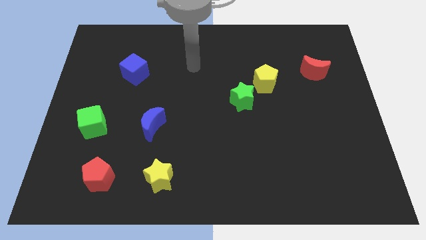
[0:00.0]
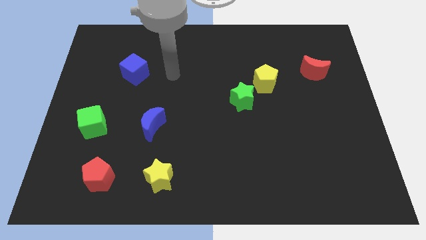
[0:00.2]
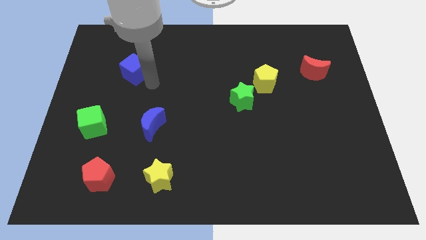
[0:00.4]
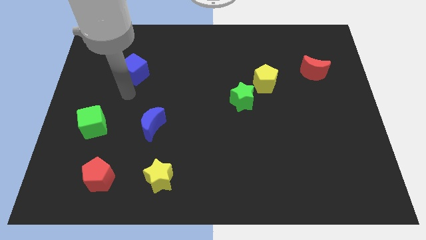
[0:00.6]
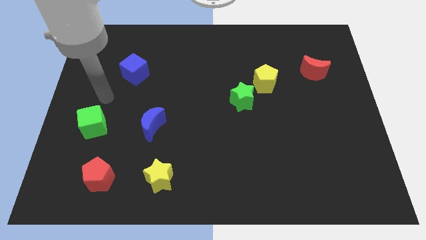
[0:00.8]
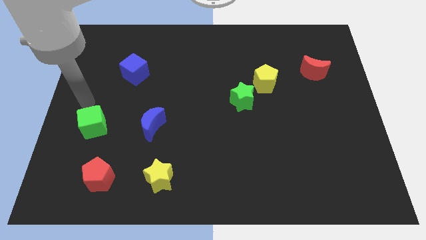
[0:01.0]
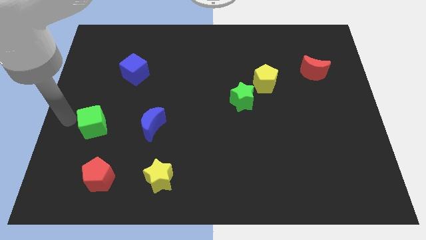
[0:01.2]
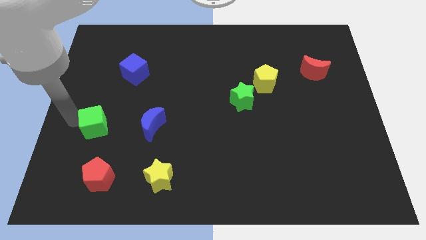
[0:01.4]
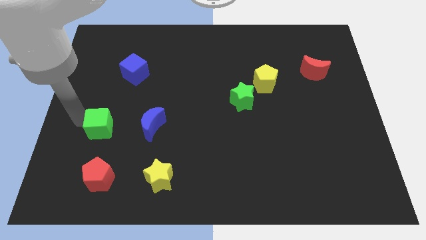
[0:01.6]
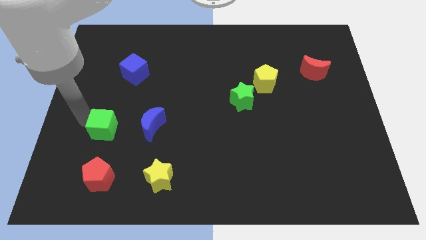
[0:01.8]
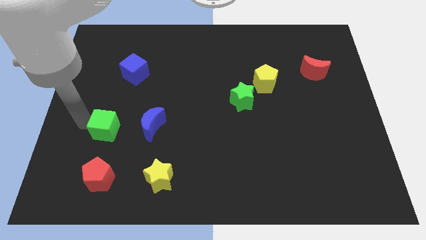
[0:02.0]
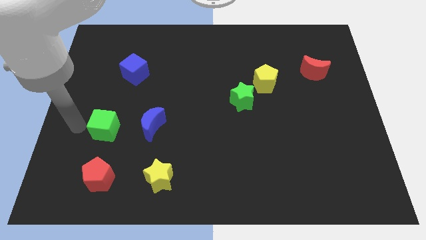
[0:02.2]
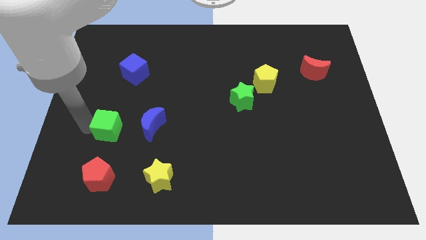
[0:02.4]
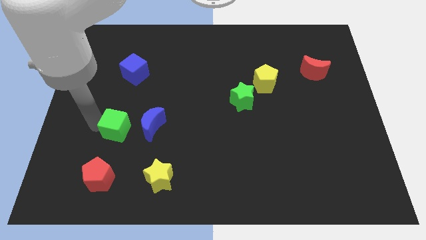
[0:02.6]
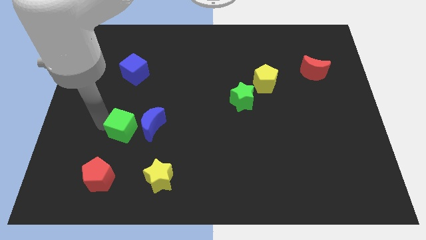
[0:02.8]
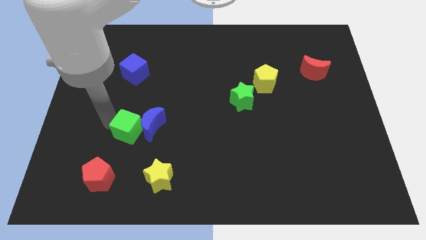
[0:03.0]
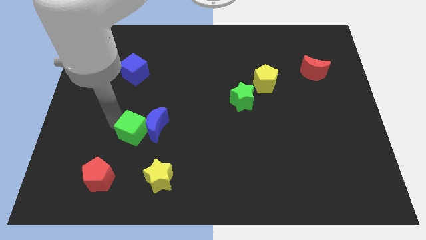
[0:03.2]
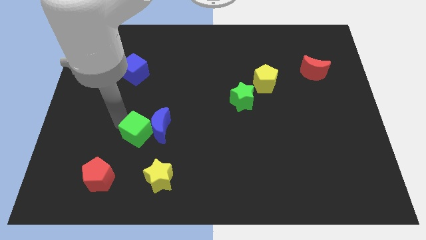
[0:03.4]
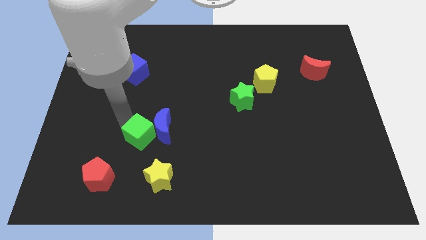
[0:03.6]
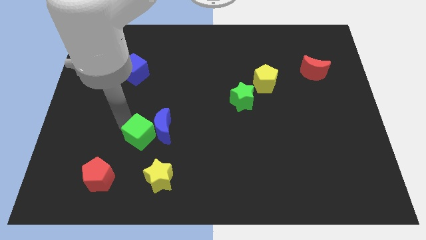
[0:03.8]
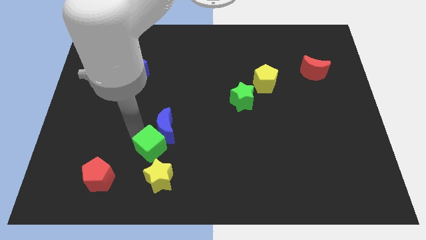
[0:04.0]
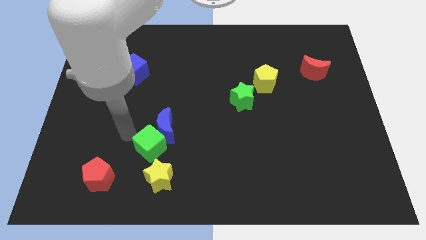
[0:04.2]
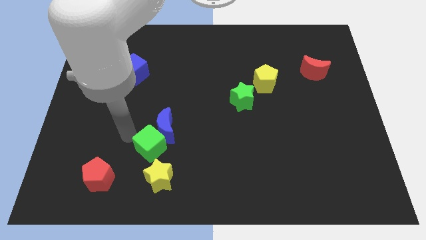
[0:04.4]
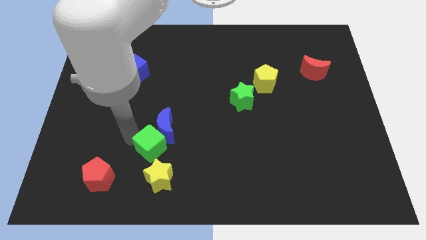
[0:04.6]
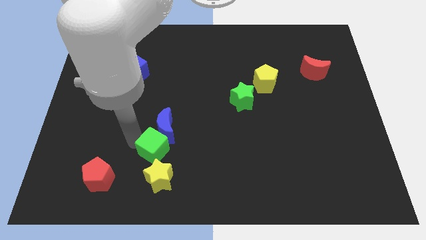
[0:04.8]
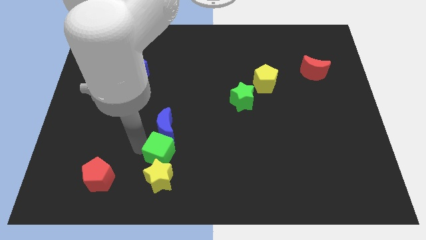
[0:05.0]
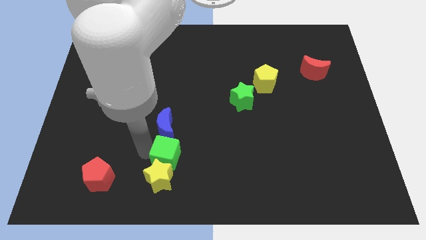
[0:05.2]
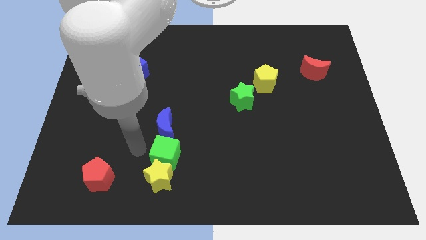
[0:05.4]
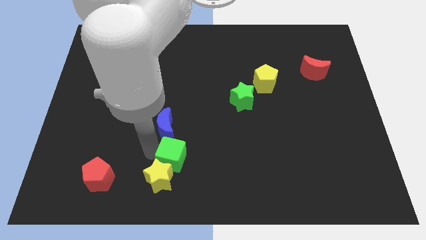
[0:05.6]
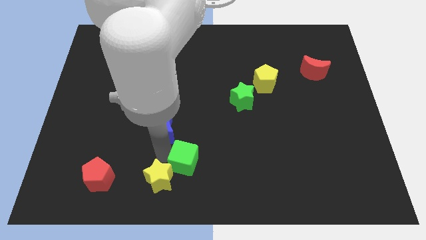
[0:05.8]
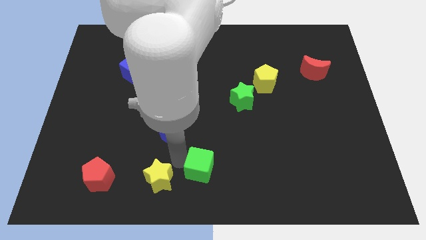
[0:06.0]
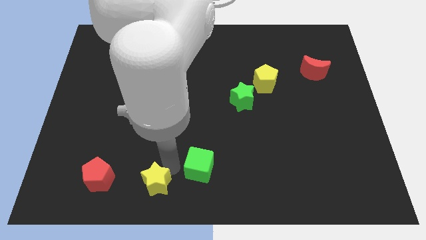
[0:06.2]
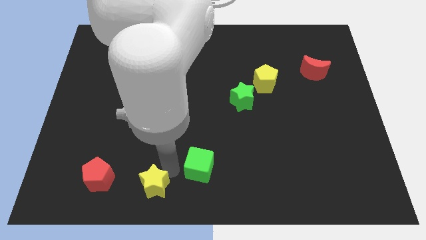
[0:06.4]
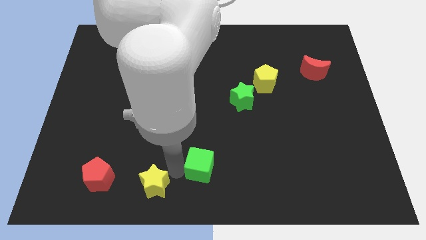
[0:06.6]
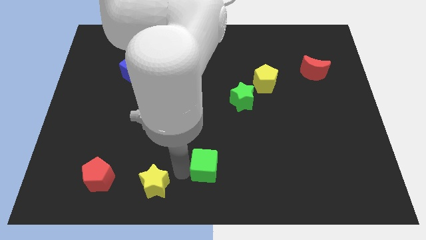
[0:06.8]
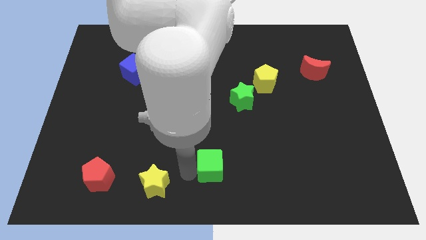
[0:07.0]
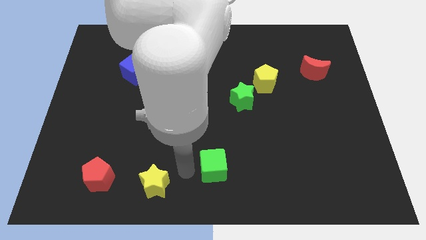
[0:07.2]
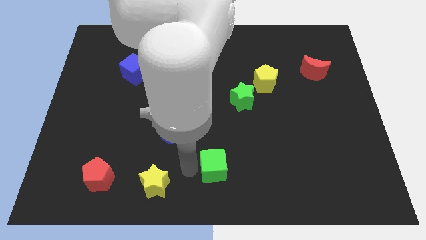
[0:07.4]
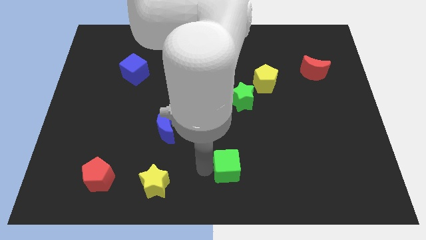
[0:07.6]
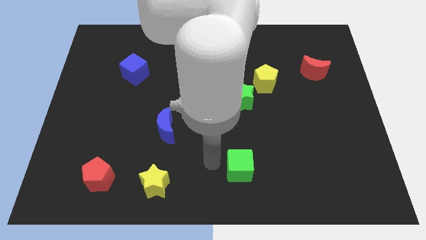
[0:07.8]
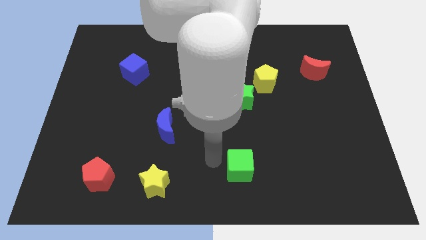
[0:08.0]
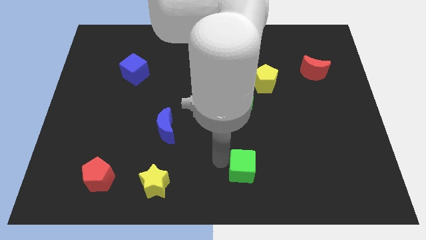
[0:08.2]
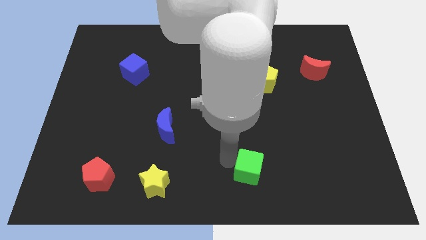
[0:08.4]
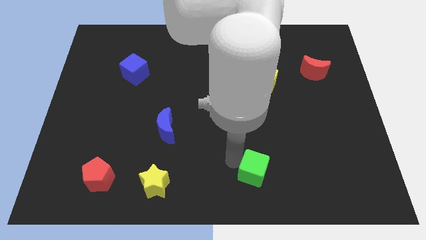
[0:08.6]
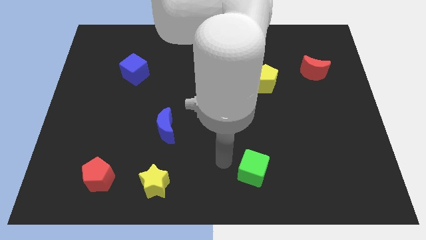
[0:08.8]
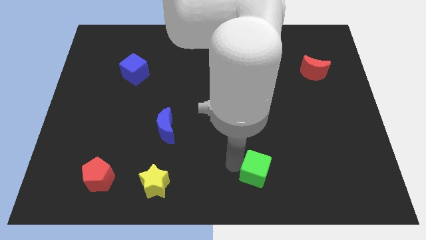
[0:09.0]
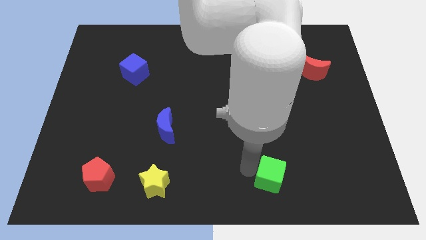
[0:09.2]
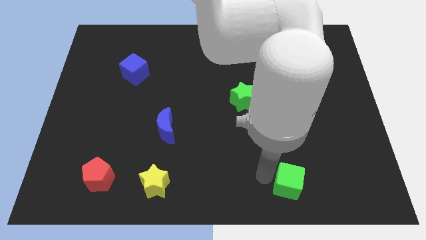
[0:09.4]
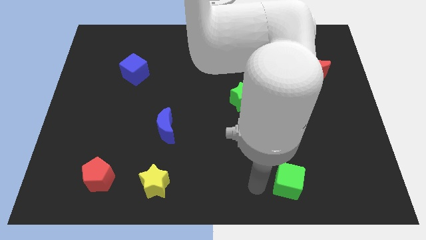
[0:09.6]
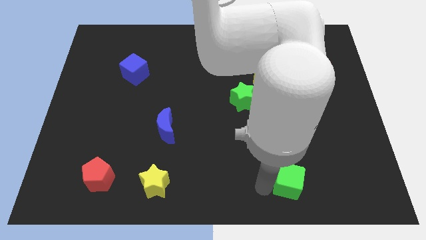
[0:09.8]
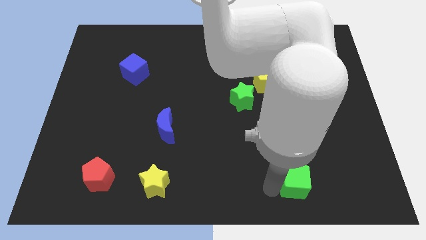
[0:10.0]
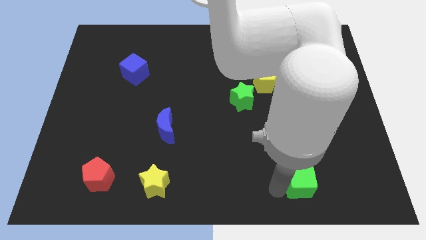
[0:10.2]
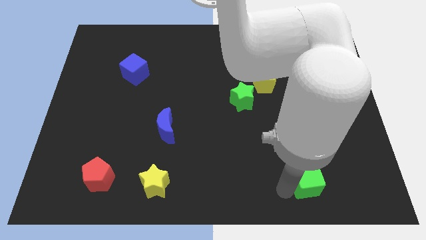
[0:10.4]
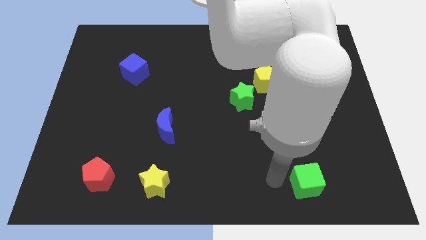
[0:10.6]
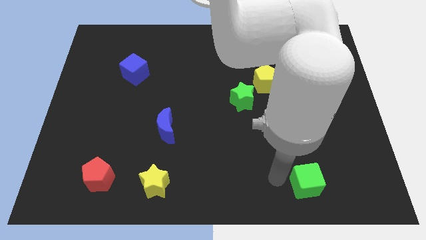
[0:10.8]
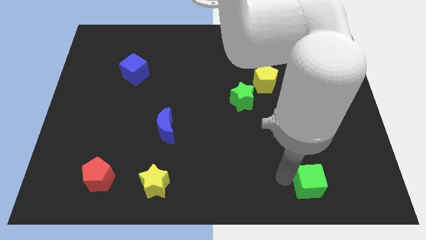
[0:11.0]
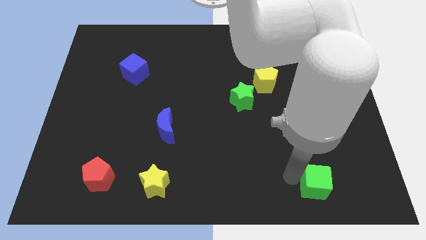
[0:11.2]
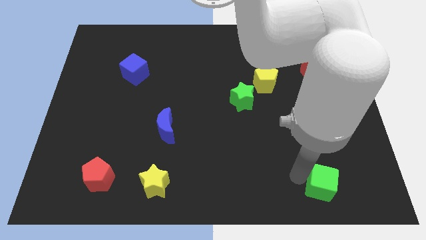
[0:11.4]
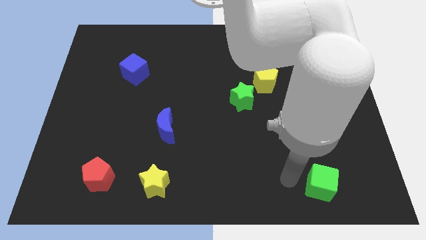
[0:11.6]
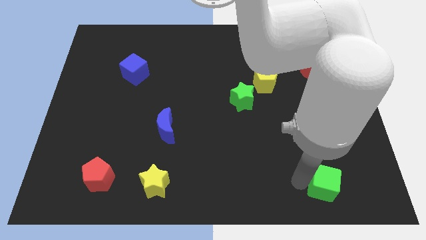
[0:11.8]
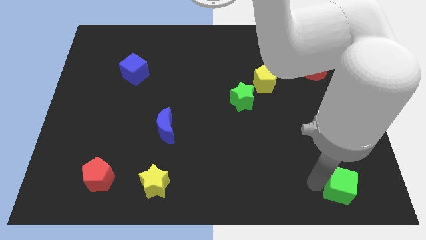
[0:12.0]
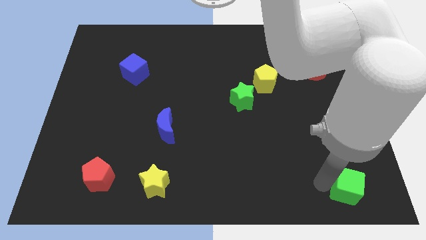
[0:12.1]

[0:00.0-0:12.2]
slide the green cube to the bottom right of the board

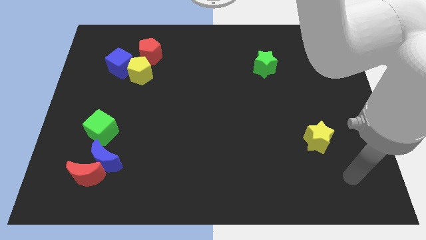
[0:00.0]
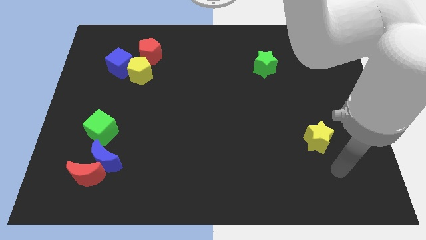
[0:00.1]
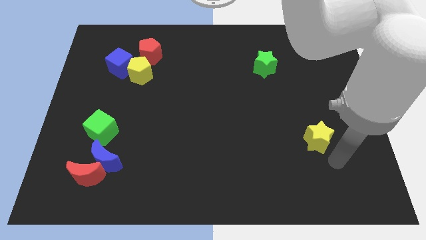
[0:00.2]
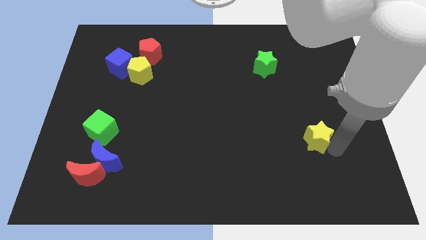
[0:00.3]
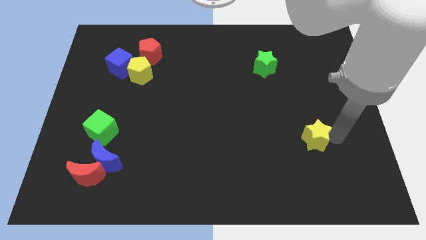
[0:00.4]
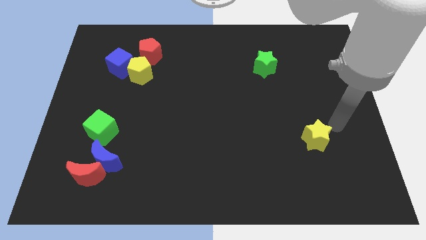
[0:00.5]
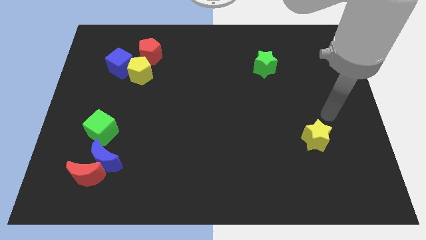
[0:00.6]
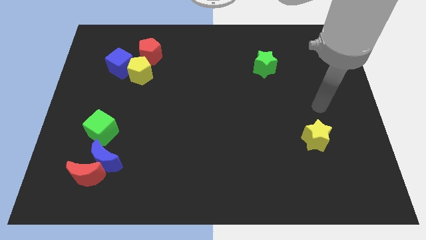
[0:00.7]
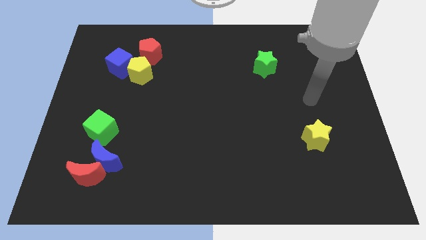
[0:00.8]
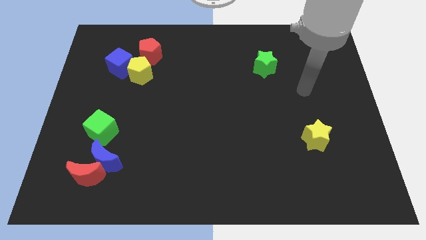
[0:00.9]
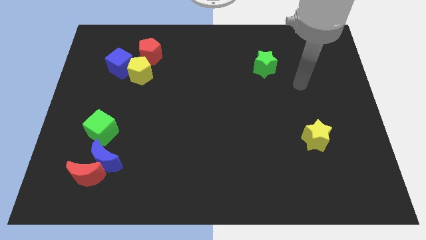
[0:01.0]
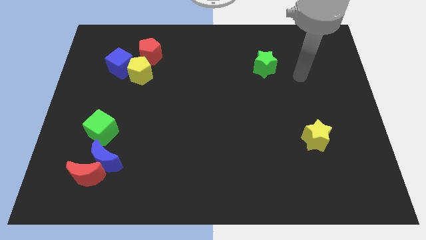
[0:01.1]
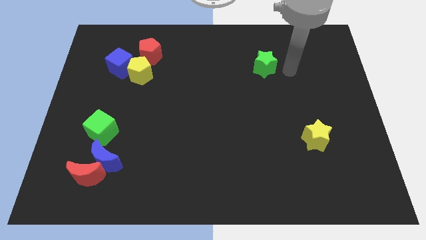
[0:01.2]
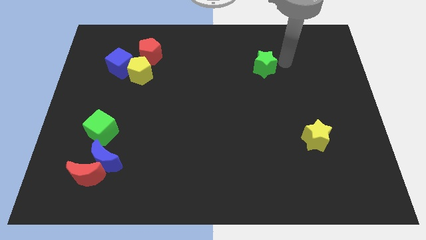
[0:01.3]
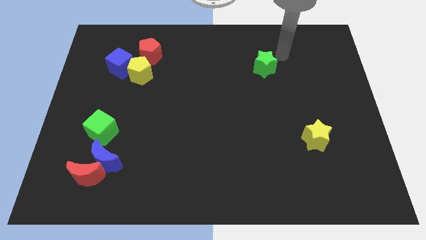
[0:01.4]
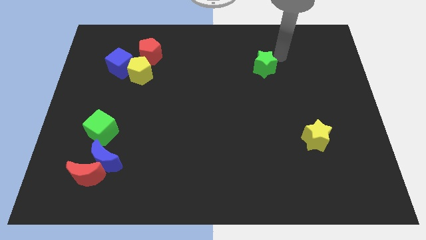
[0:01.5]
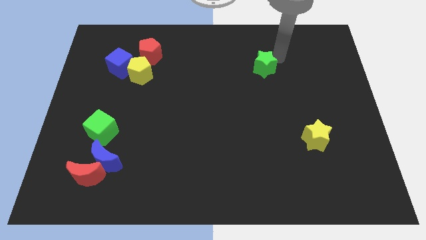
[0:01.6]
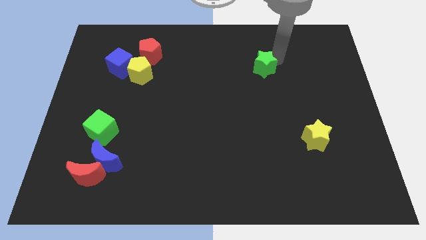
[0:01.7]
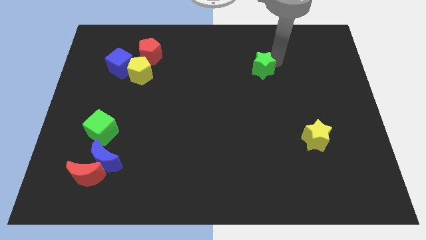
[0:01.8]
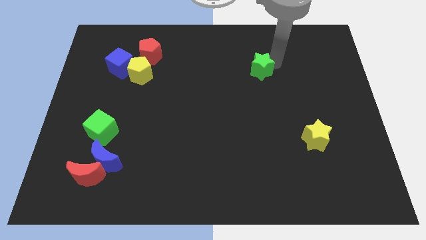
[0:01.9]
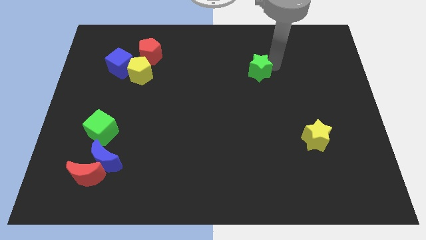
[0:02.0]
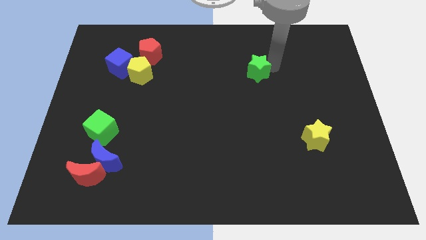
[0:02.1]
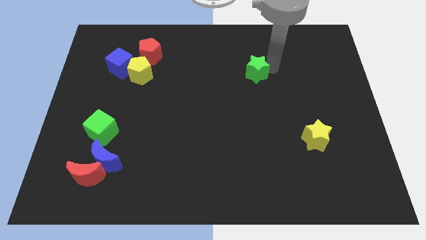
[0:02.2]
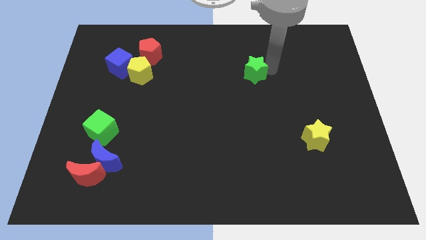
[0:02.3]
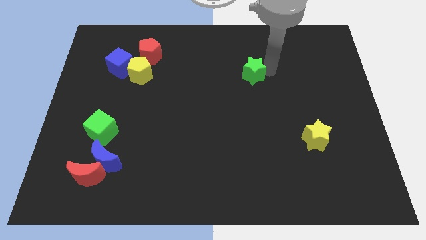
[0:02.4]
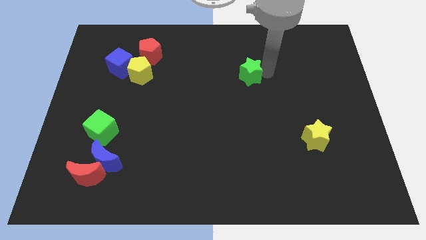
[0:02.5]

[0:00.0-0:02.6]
put the green star to the middle of the board

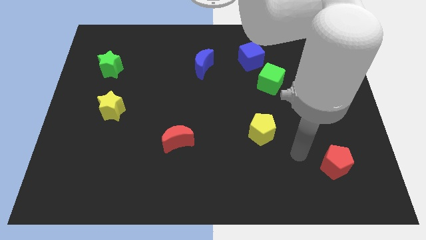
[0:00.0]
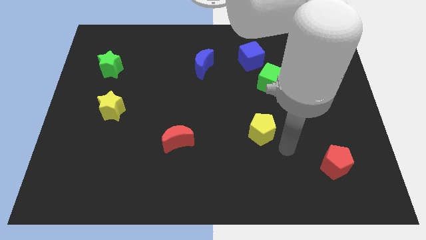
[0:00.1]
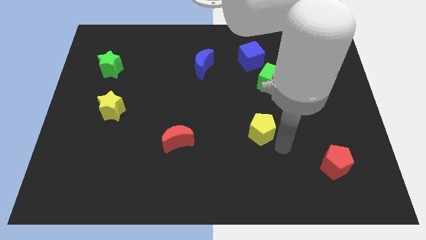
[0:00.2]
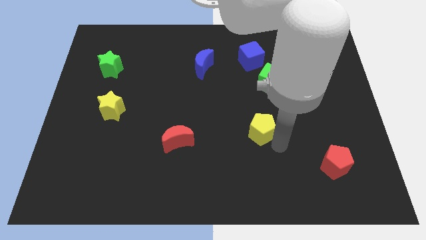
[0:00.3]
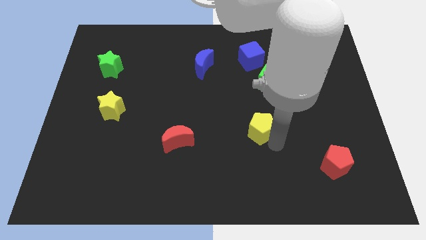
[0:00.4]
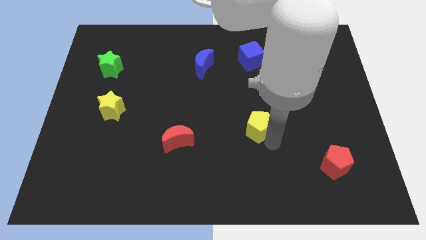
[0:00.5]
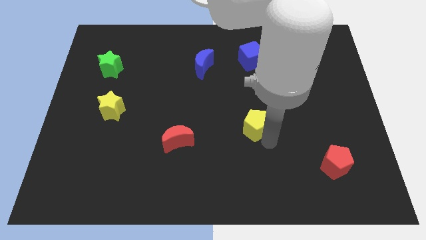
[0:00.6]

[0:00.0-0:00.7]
push the yellow pentagon to the center of the board
